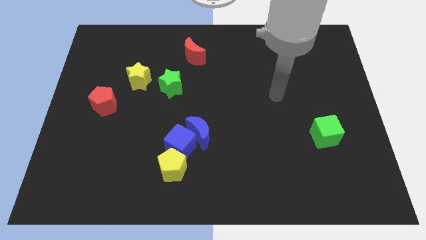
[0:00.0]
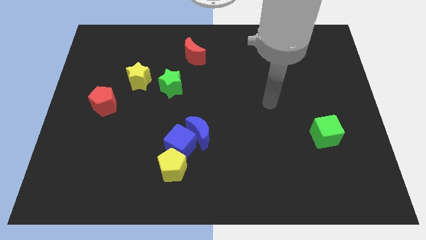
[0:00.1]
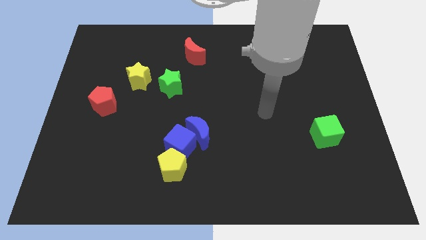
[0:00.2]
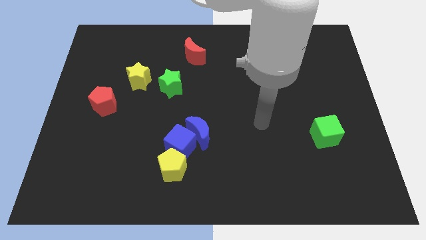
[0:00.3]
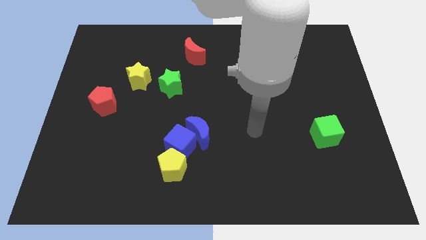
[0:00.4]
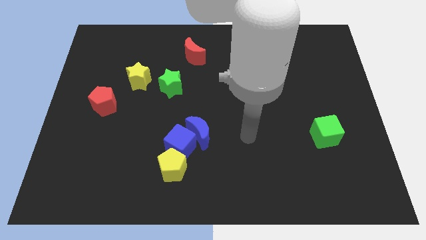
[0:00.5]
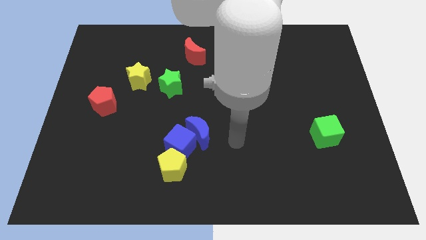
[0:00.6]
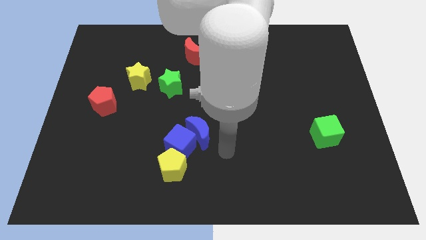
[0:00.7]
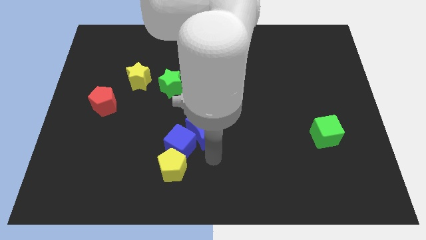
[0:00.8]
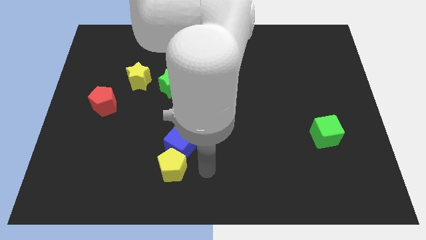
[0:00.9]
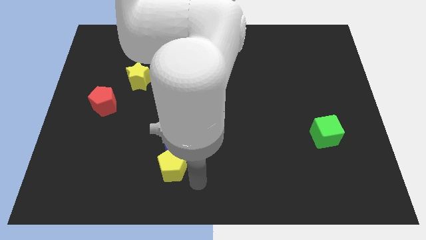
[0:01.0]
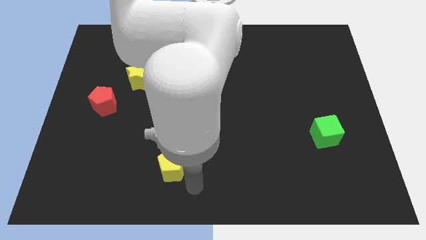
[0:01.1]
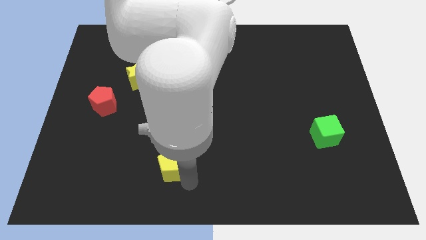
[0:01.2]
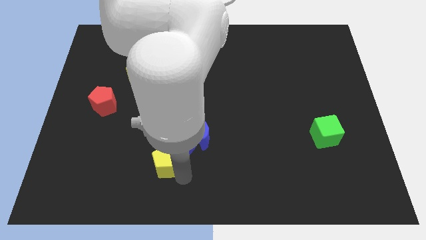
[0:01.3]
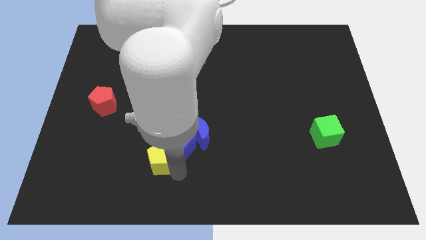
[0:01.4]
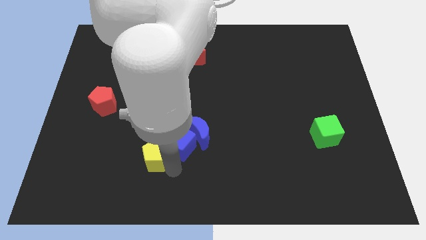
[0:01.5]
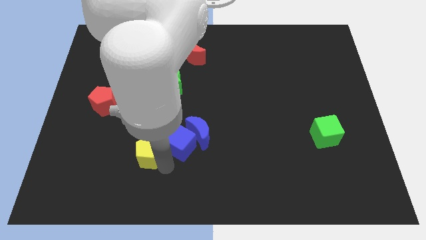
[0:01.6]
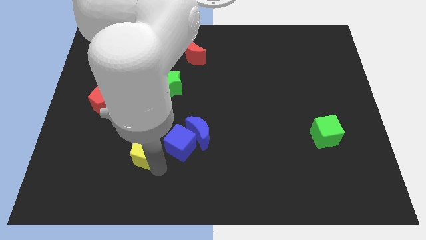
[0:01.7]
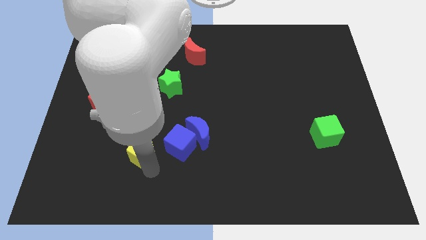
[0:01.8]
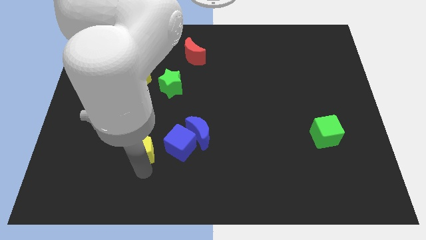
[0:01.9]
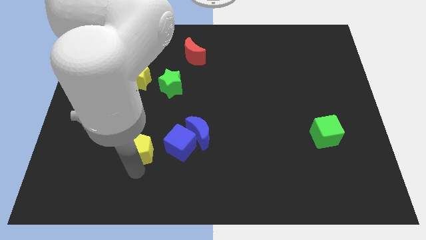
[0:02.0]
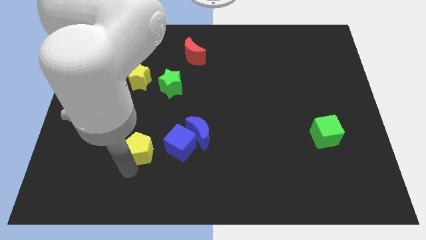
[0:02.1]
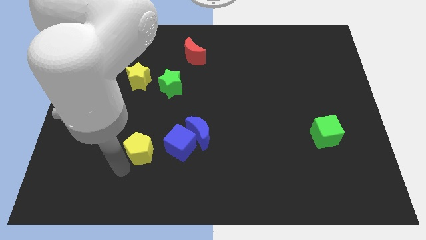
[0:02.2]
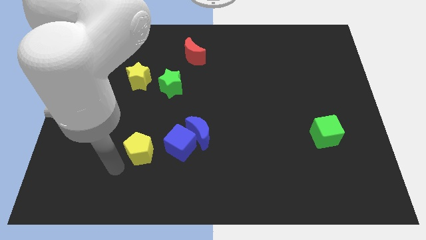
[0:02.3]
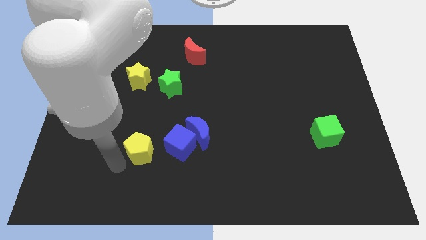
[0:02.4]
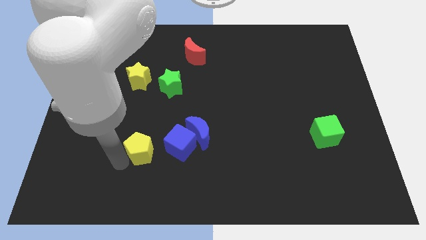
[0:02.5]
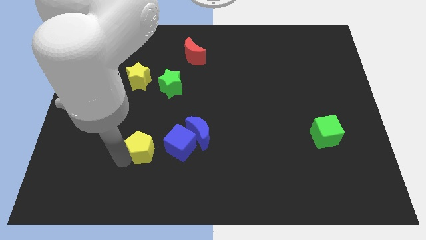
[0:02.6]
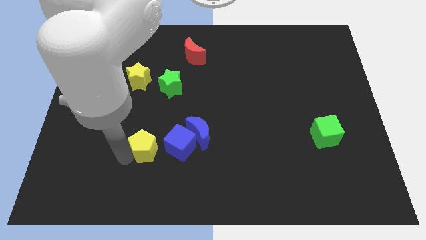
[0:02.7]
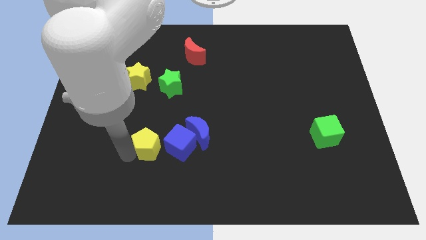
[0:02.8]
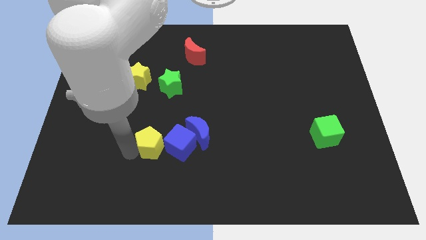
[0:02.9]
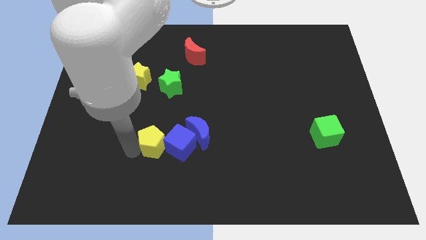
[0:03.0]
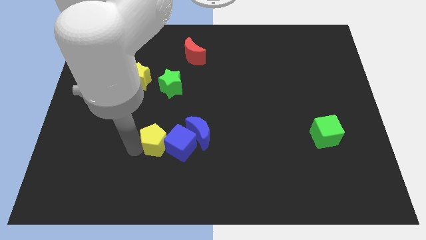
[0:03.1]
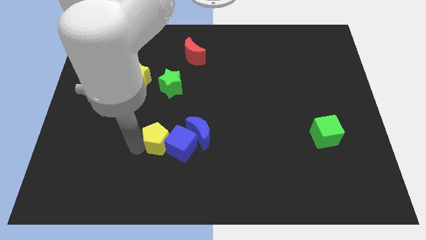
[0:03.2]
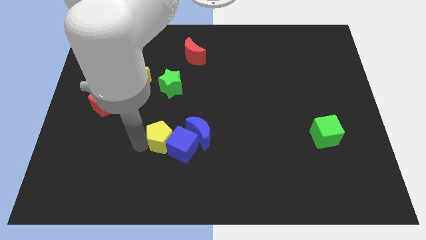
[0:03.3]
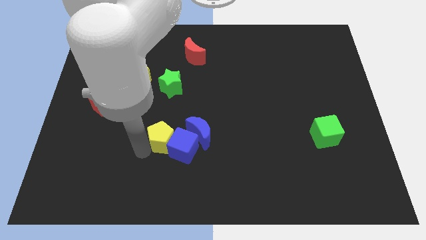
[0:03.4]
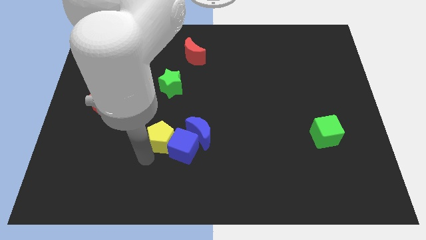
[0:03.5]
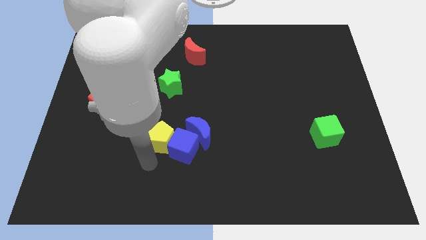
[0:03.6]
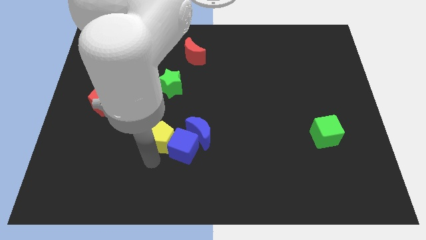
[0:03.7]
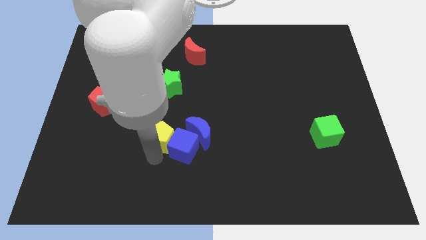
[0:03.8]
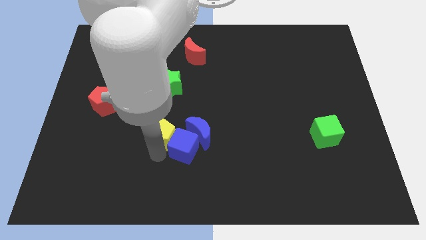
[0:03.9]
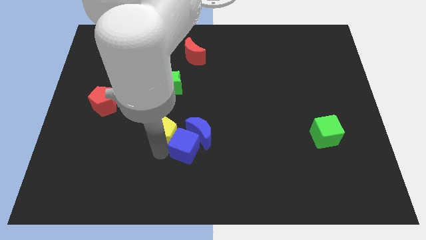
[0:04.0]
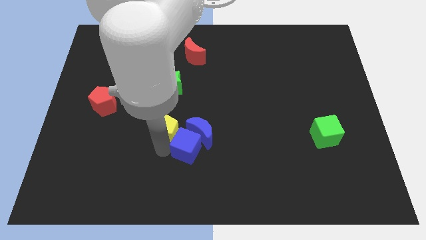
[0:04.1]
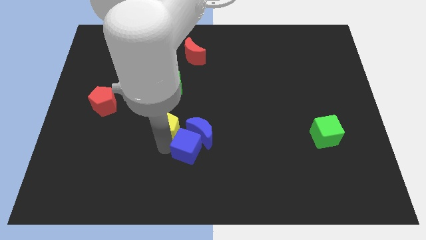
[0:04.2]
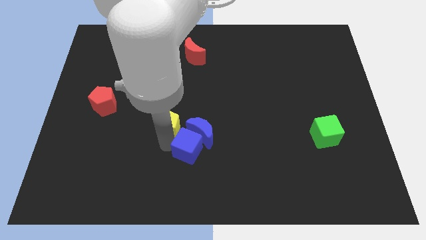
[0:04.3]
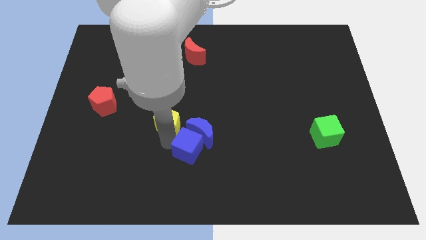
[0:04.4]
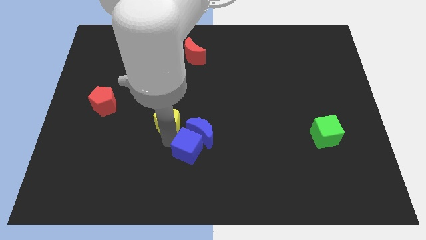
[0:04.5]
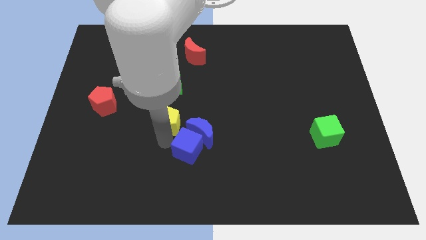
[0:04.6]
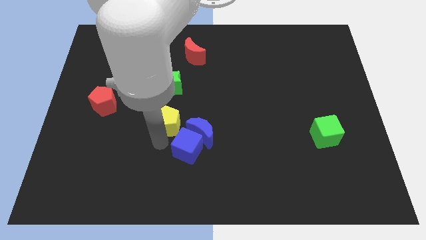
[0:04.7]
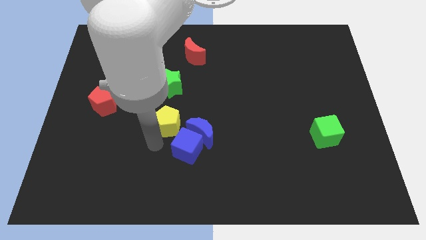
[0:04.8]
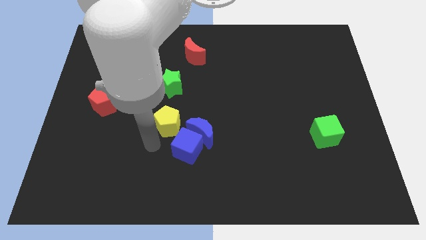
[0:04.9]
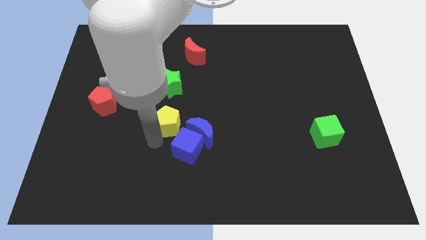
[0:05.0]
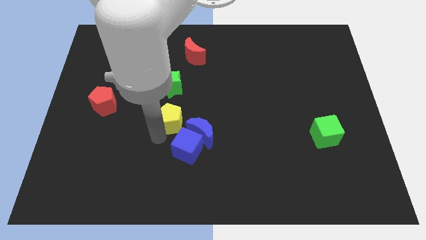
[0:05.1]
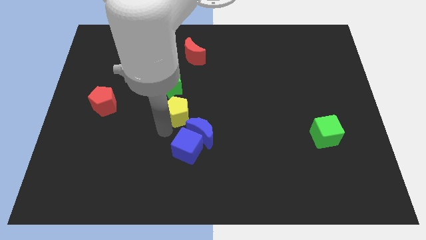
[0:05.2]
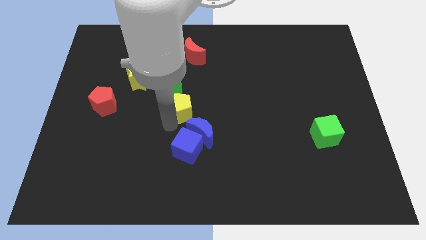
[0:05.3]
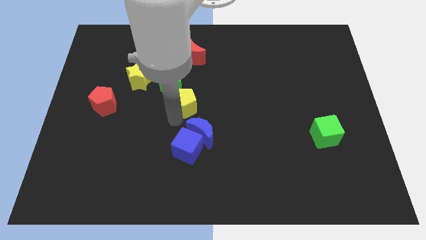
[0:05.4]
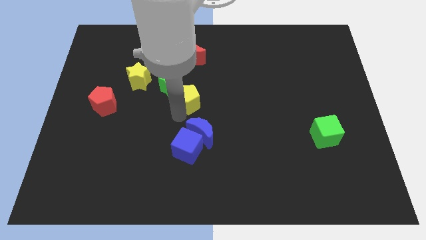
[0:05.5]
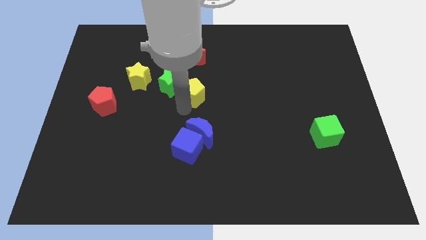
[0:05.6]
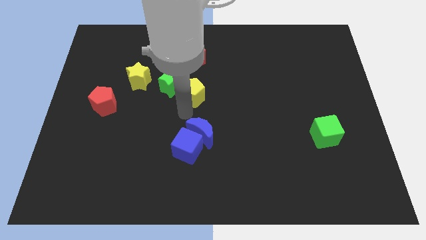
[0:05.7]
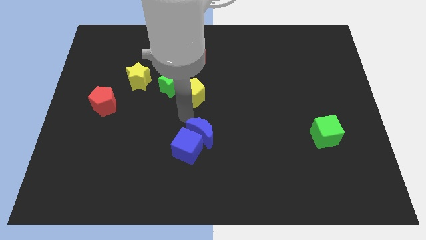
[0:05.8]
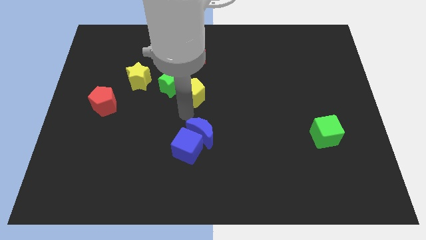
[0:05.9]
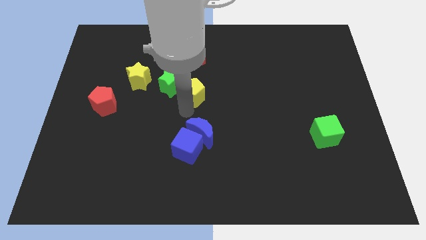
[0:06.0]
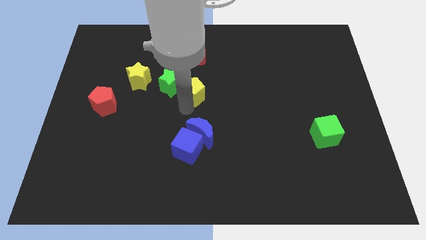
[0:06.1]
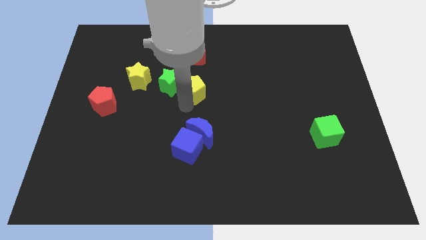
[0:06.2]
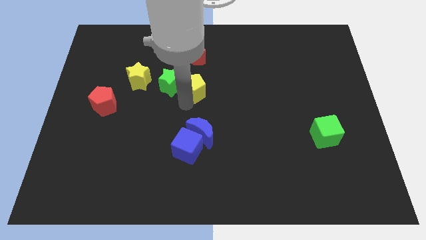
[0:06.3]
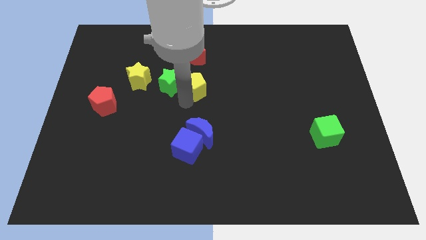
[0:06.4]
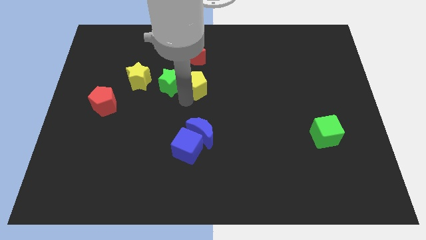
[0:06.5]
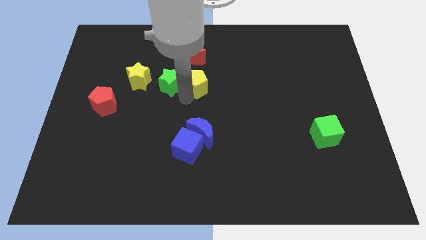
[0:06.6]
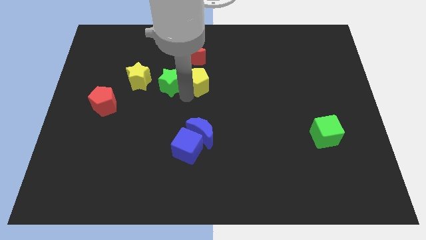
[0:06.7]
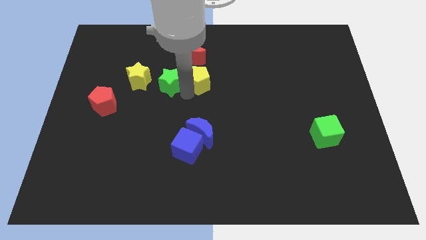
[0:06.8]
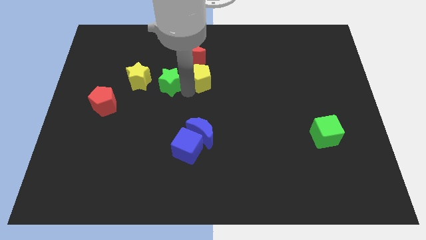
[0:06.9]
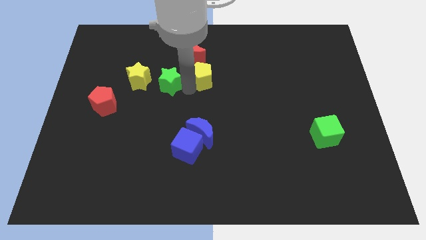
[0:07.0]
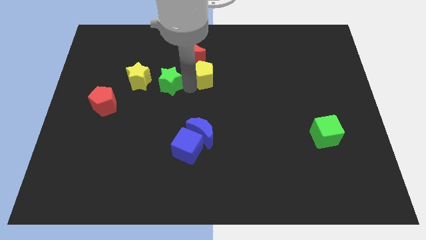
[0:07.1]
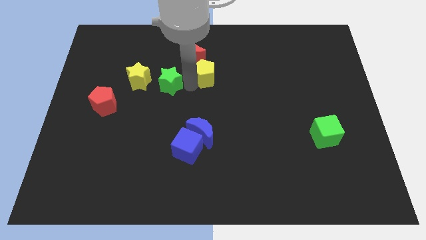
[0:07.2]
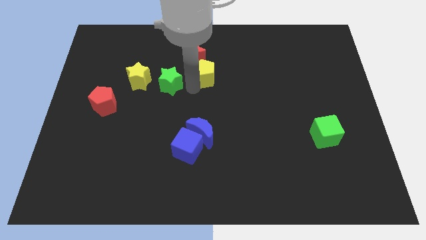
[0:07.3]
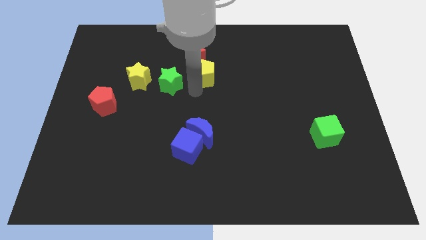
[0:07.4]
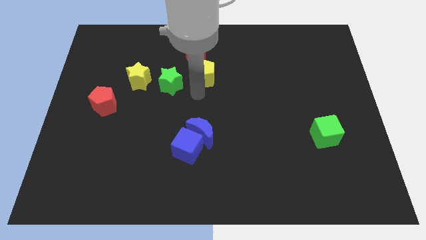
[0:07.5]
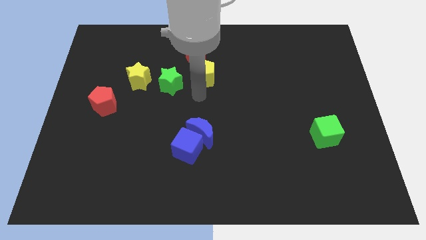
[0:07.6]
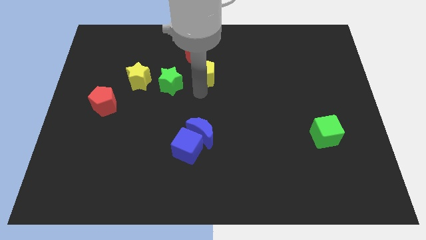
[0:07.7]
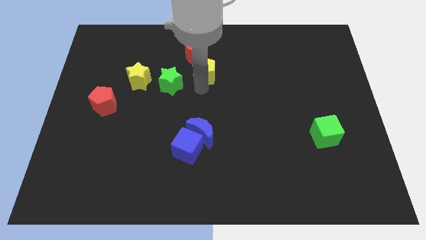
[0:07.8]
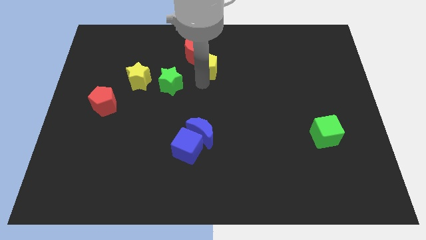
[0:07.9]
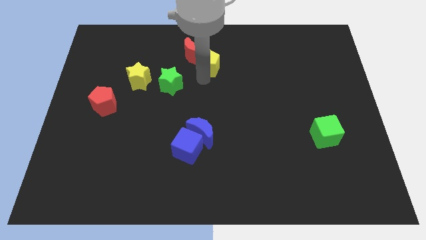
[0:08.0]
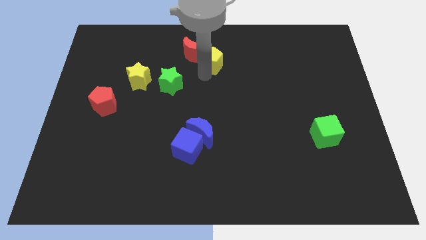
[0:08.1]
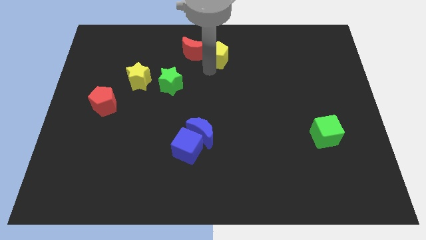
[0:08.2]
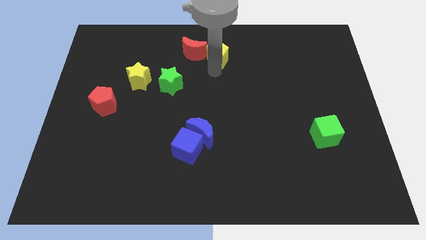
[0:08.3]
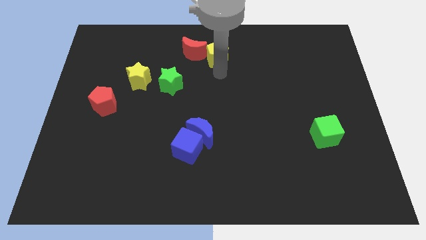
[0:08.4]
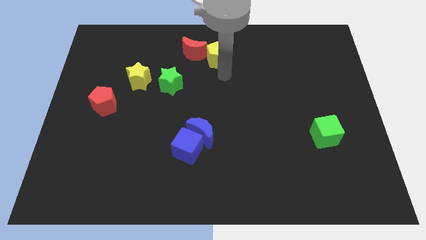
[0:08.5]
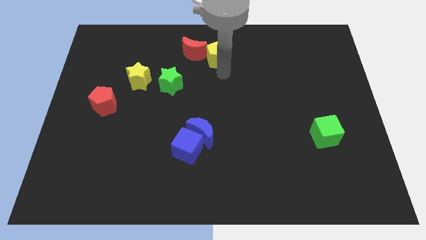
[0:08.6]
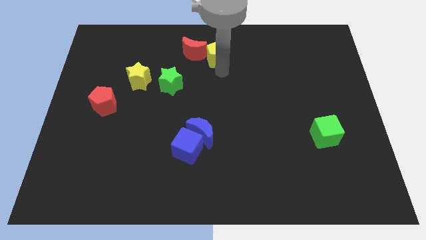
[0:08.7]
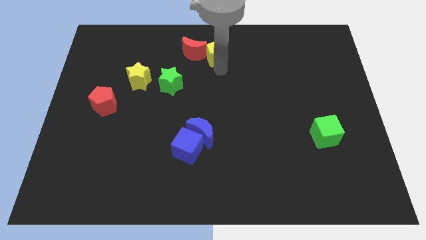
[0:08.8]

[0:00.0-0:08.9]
put the yellow pentagon to the towards your base
